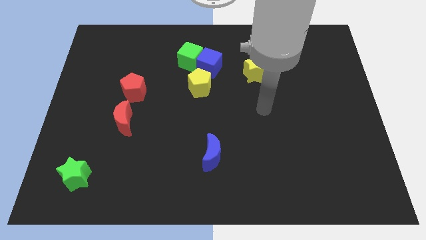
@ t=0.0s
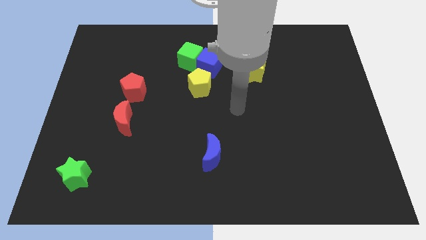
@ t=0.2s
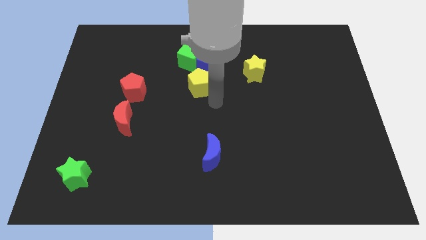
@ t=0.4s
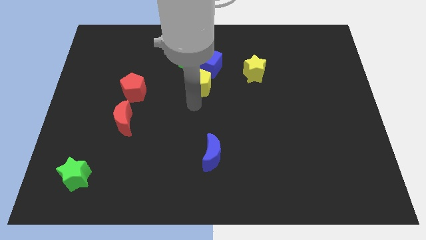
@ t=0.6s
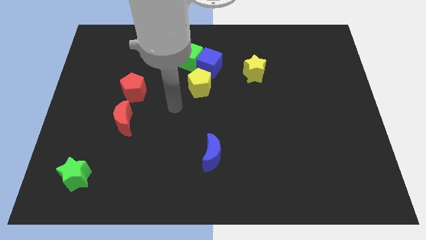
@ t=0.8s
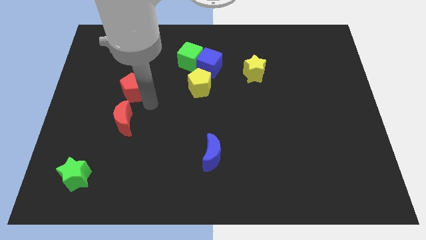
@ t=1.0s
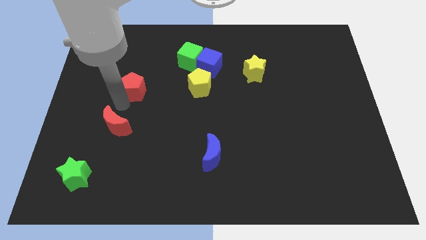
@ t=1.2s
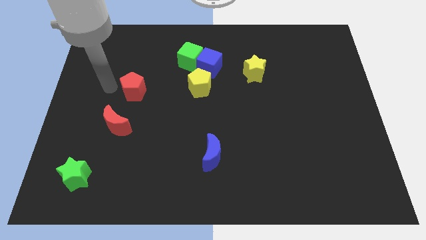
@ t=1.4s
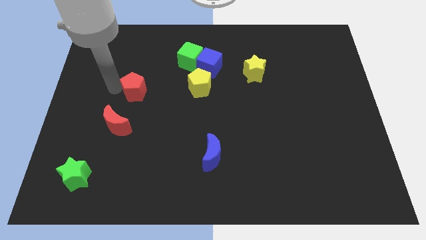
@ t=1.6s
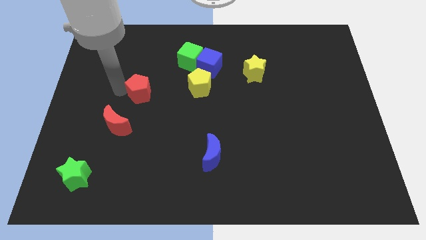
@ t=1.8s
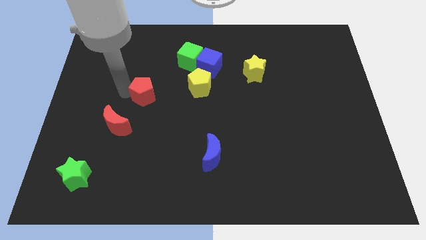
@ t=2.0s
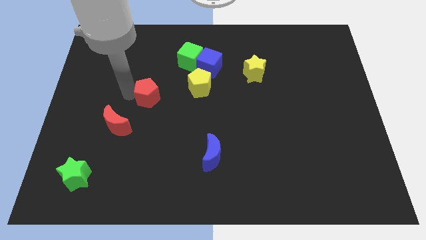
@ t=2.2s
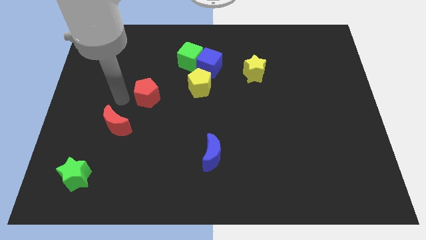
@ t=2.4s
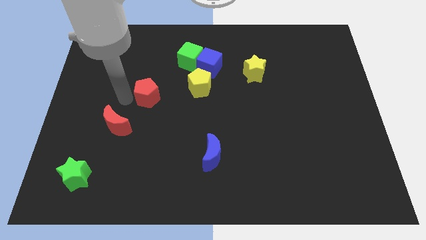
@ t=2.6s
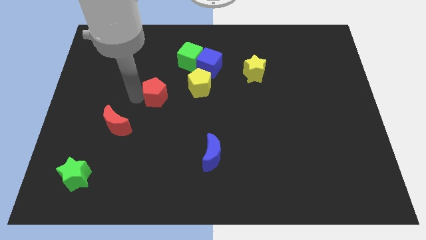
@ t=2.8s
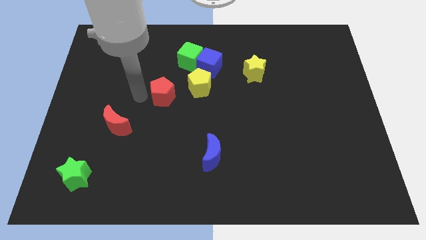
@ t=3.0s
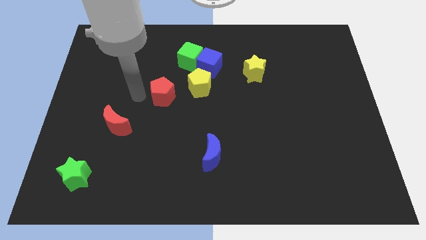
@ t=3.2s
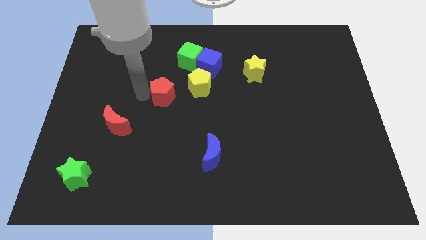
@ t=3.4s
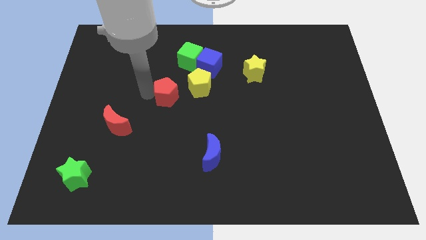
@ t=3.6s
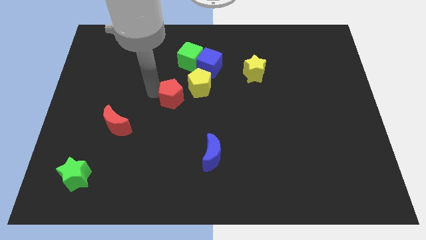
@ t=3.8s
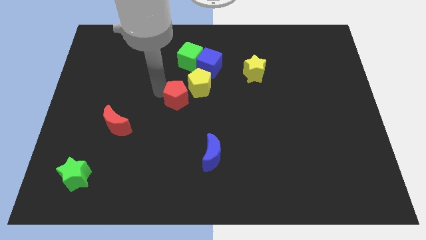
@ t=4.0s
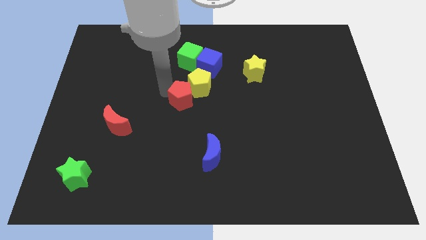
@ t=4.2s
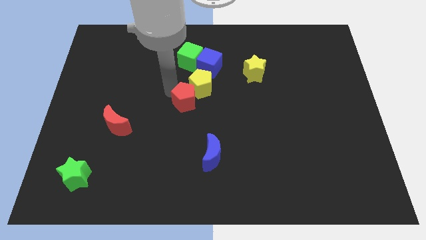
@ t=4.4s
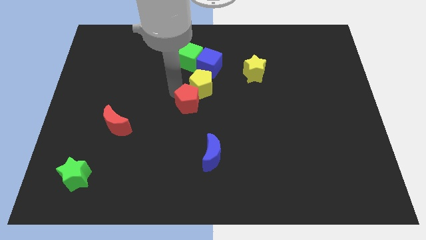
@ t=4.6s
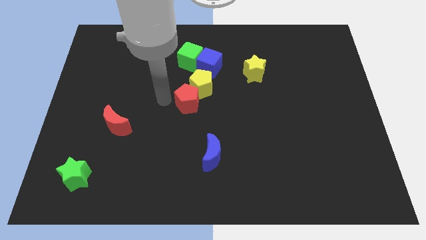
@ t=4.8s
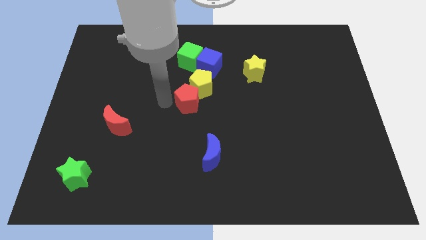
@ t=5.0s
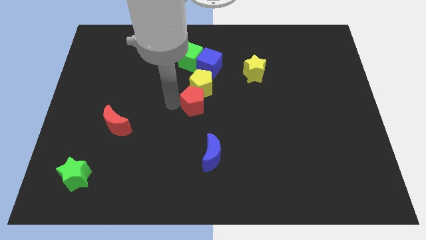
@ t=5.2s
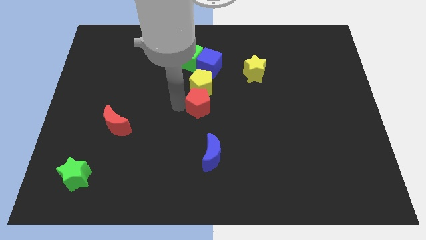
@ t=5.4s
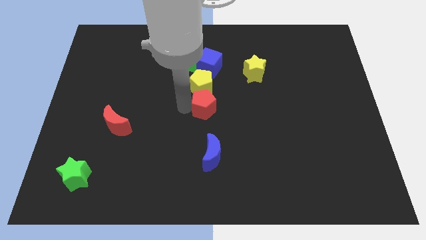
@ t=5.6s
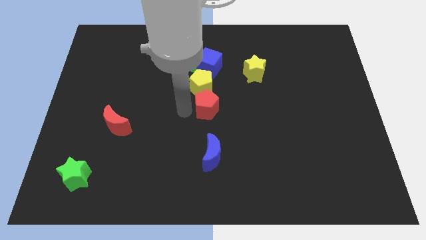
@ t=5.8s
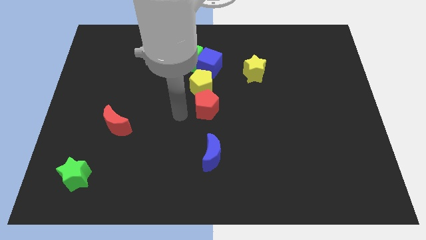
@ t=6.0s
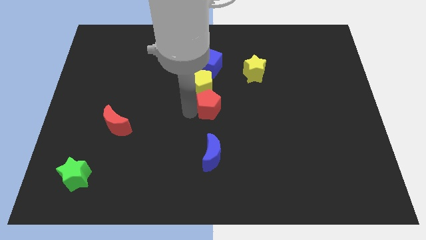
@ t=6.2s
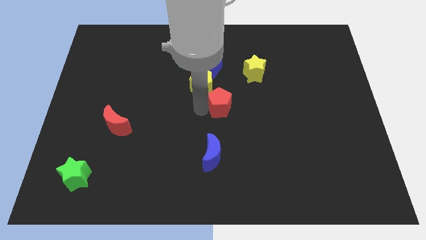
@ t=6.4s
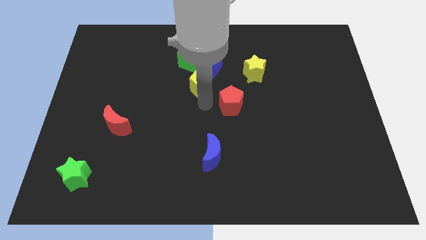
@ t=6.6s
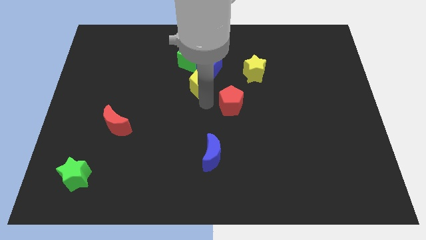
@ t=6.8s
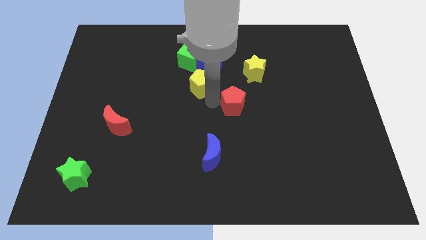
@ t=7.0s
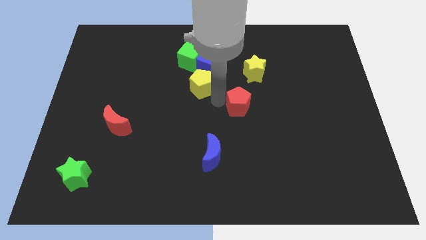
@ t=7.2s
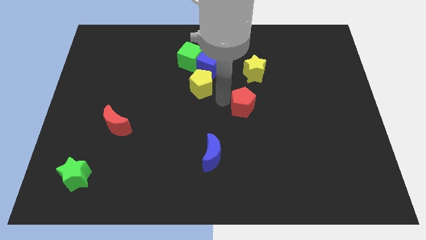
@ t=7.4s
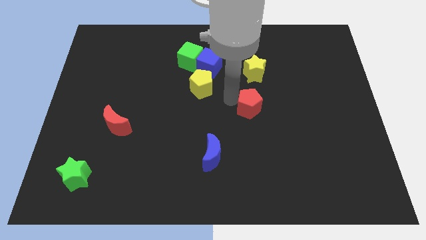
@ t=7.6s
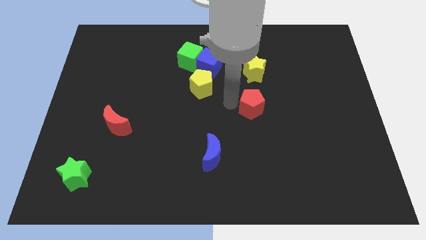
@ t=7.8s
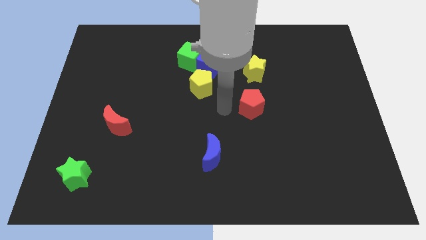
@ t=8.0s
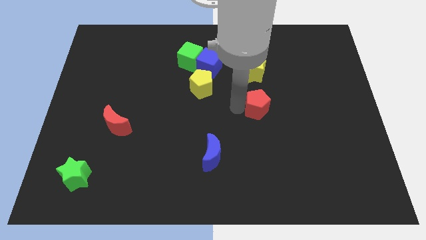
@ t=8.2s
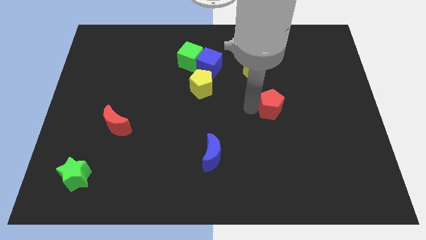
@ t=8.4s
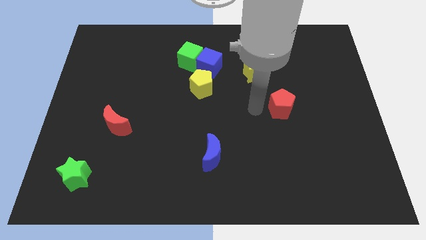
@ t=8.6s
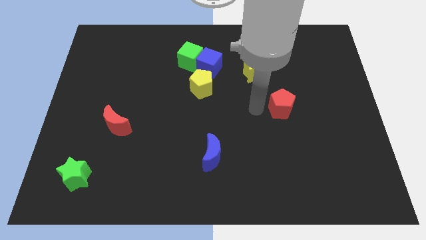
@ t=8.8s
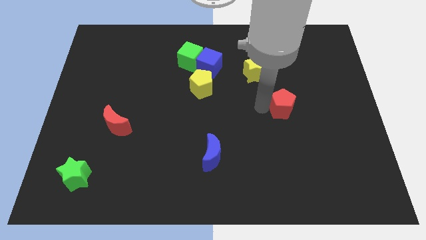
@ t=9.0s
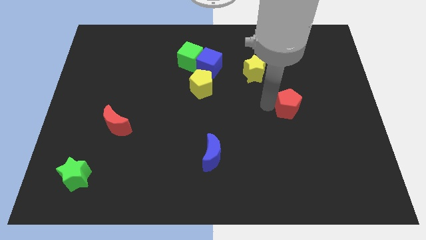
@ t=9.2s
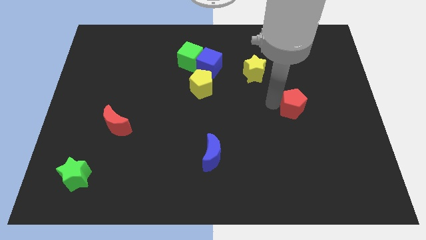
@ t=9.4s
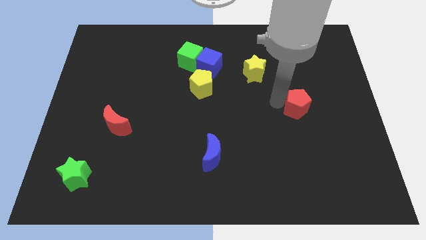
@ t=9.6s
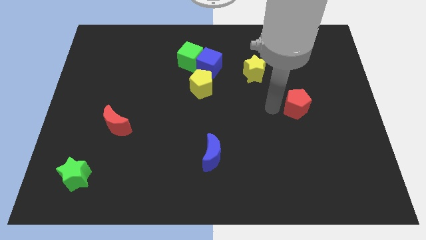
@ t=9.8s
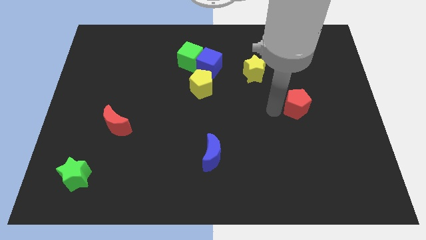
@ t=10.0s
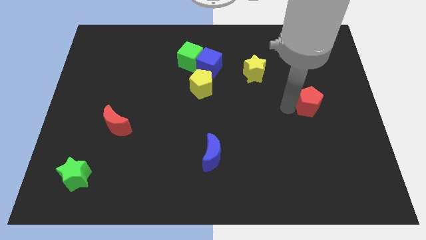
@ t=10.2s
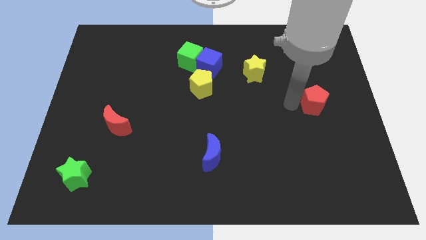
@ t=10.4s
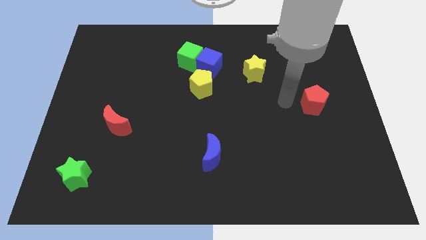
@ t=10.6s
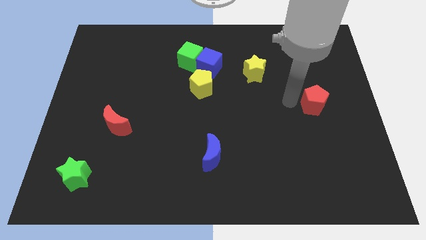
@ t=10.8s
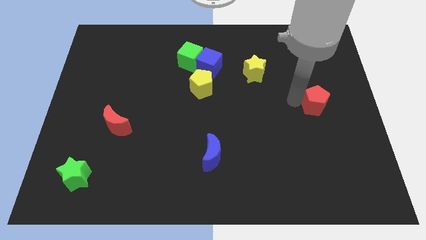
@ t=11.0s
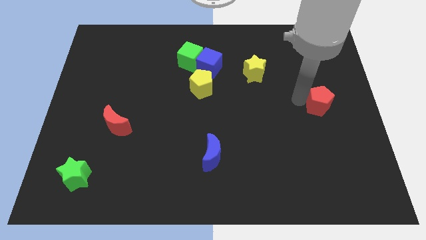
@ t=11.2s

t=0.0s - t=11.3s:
push the red pentagon to the right side of the board

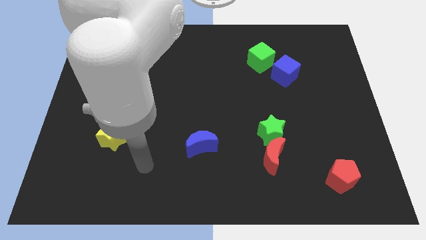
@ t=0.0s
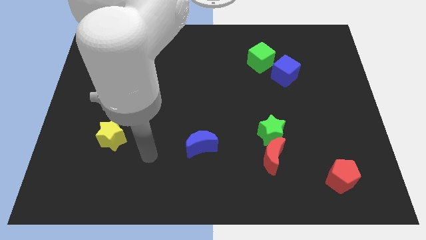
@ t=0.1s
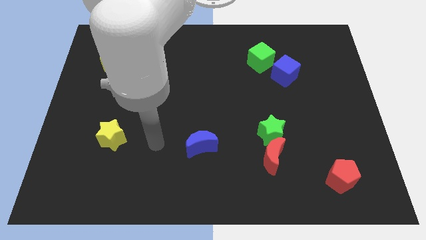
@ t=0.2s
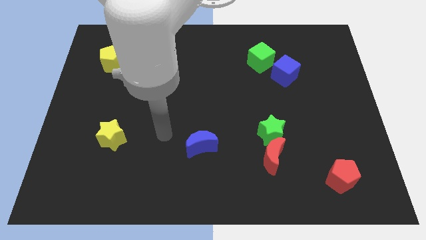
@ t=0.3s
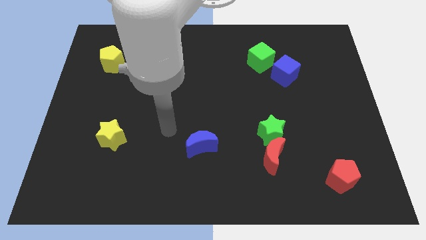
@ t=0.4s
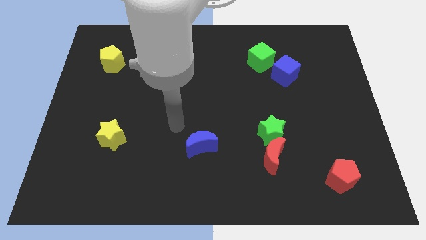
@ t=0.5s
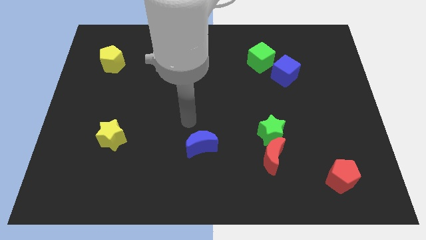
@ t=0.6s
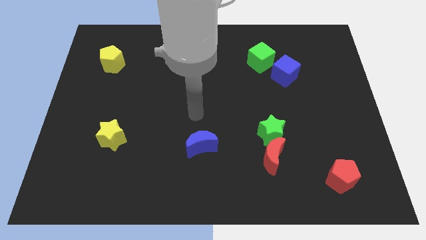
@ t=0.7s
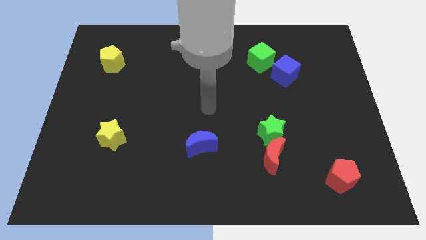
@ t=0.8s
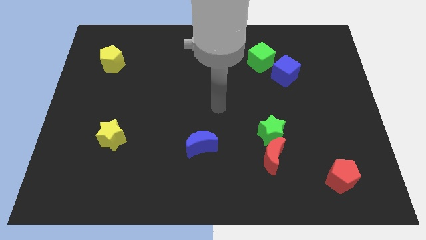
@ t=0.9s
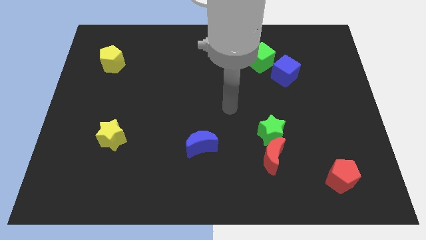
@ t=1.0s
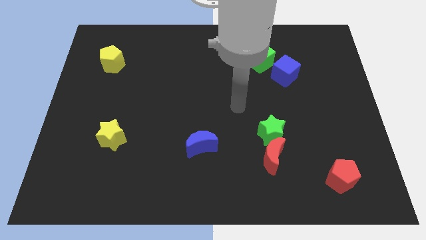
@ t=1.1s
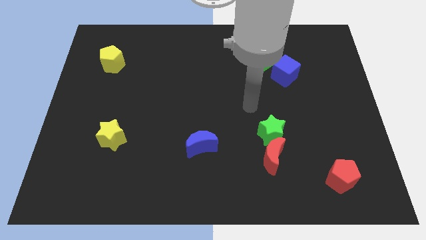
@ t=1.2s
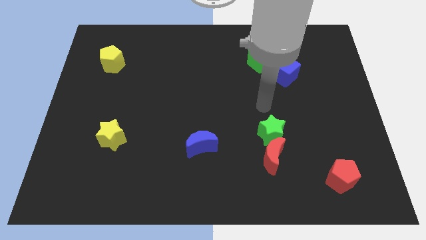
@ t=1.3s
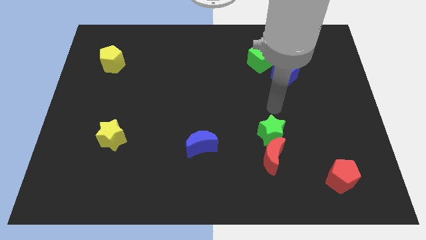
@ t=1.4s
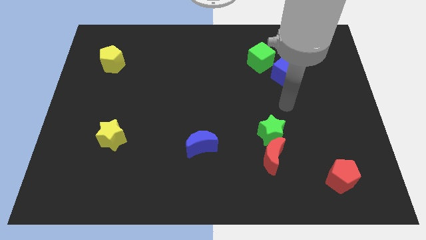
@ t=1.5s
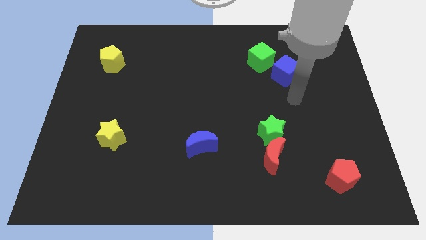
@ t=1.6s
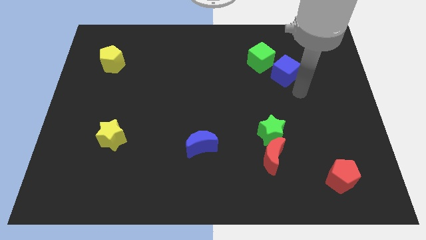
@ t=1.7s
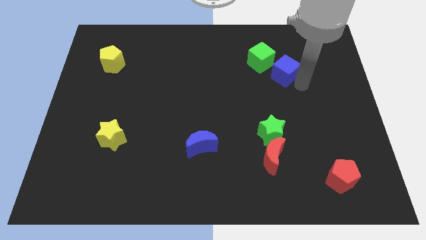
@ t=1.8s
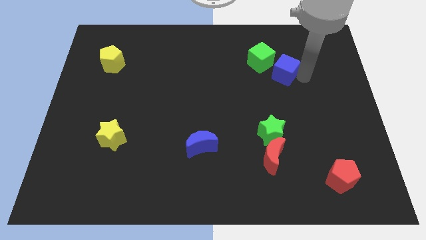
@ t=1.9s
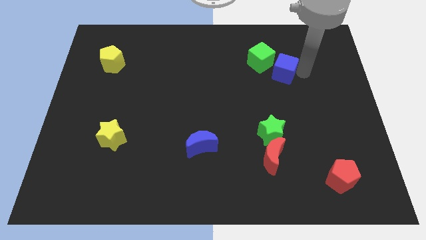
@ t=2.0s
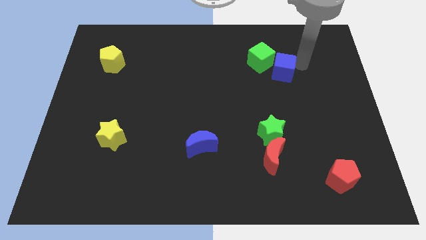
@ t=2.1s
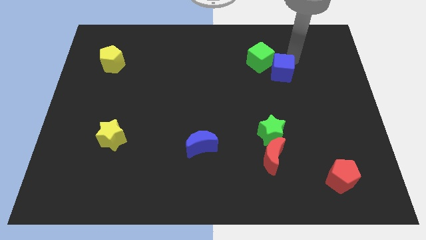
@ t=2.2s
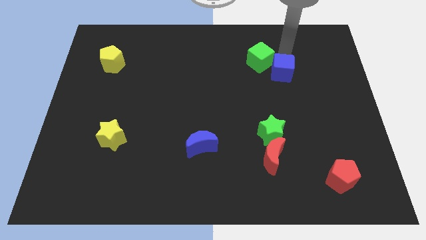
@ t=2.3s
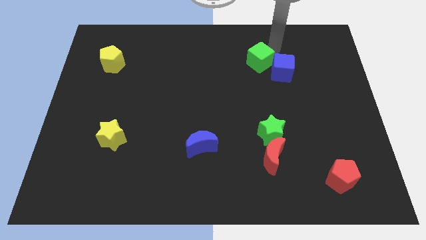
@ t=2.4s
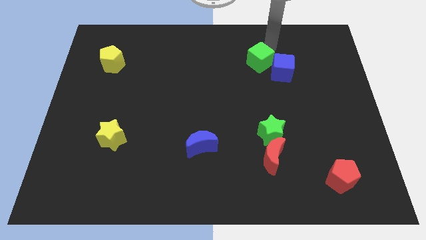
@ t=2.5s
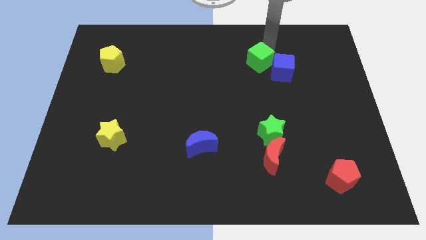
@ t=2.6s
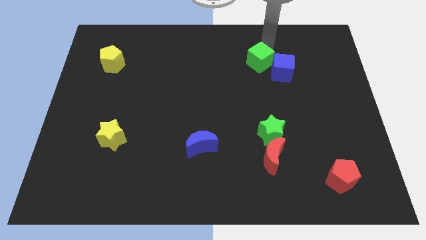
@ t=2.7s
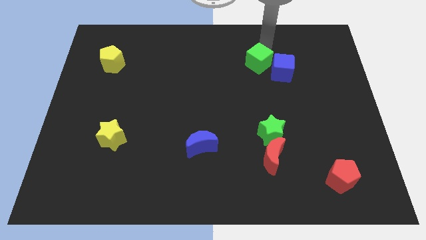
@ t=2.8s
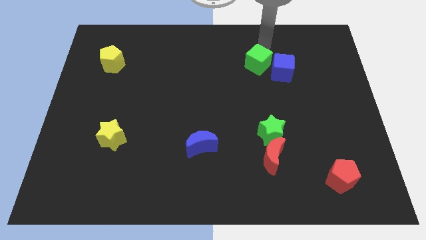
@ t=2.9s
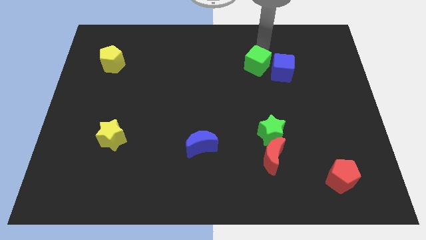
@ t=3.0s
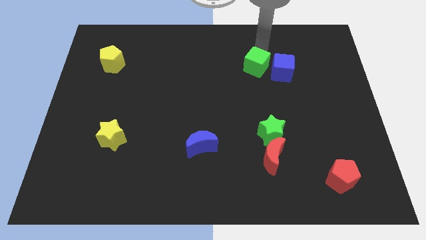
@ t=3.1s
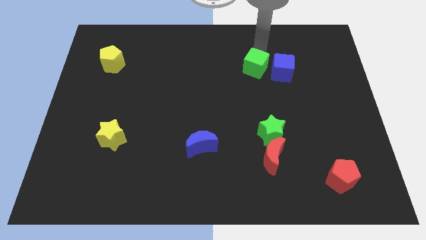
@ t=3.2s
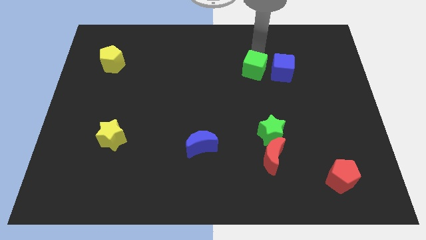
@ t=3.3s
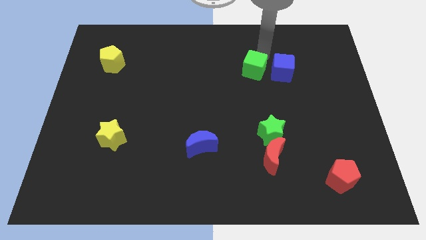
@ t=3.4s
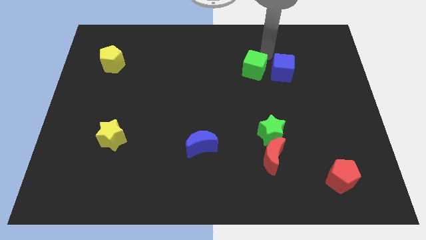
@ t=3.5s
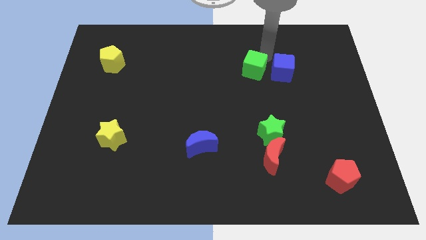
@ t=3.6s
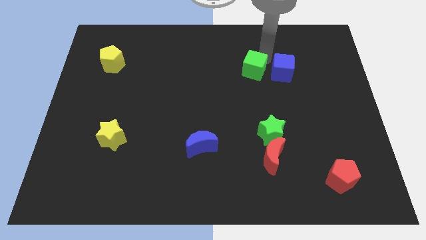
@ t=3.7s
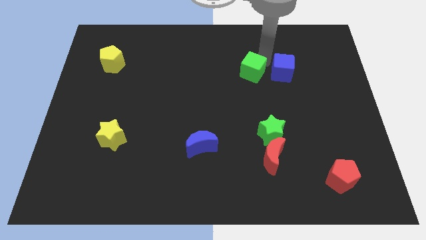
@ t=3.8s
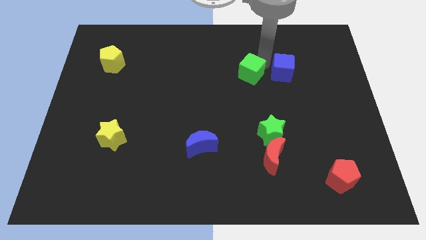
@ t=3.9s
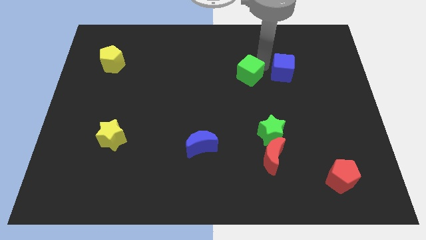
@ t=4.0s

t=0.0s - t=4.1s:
put the green cube to the middle
